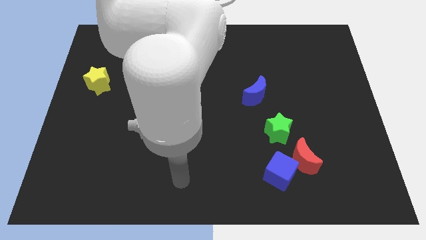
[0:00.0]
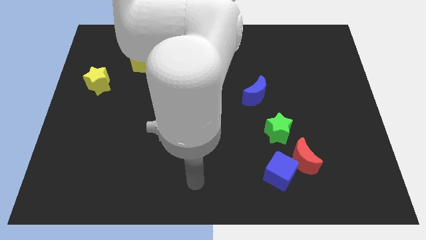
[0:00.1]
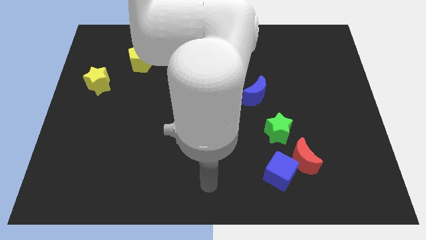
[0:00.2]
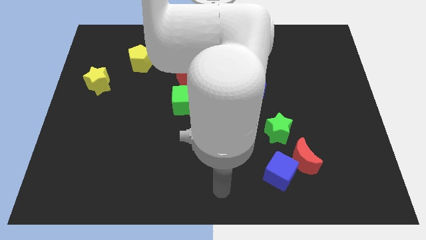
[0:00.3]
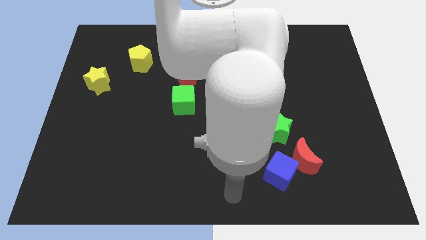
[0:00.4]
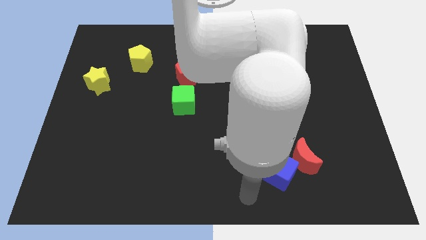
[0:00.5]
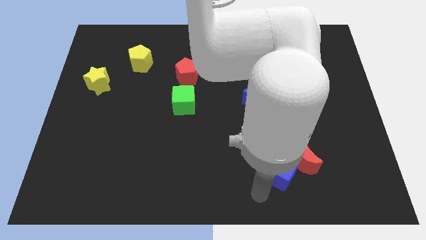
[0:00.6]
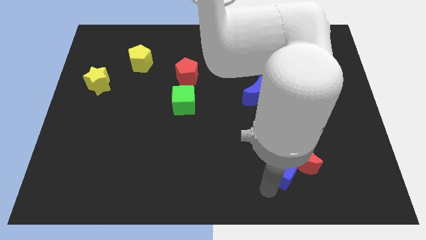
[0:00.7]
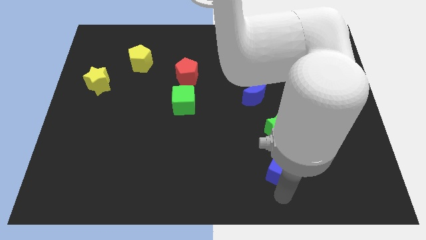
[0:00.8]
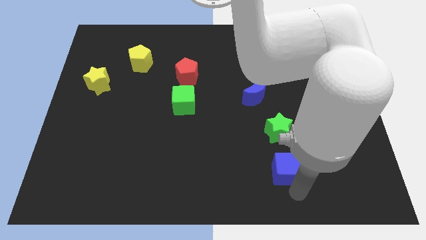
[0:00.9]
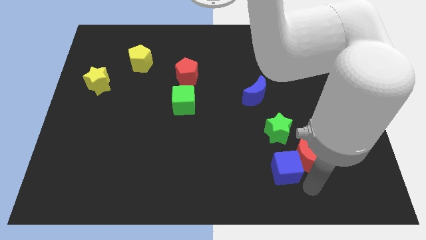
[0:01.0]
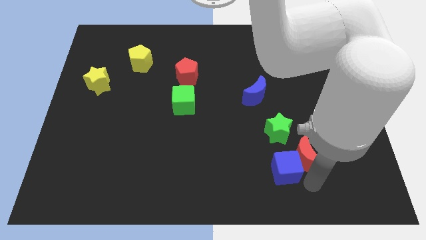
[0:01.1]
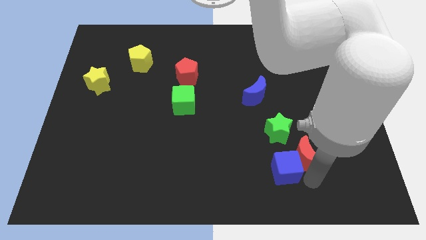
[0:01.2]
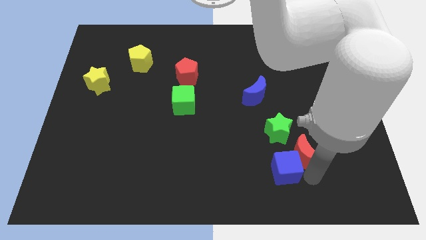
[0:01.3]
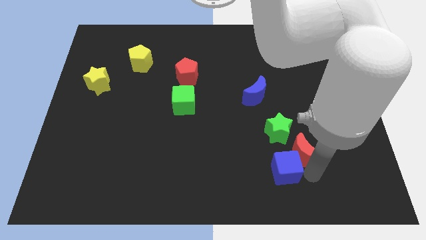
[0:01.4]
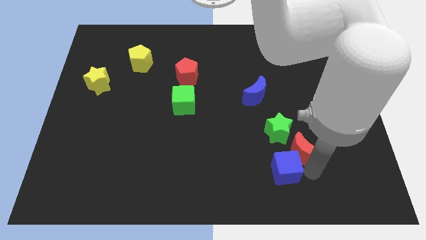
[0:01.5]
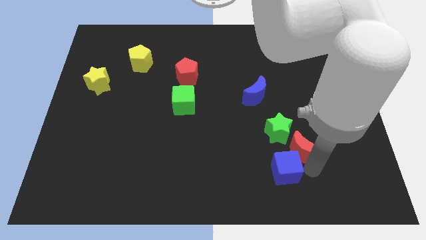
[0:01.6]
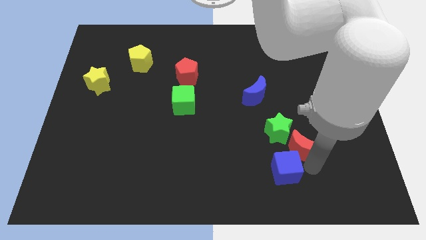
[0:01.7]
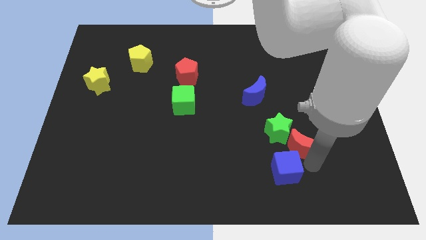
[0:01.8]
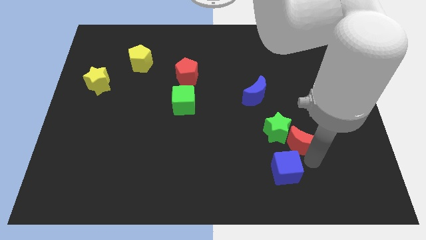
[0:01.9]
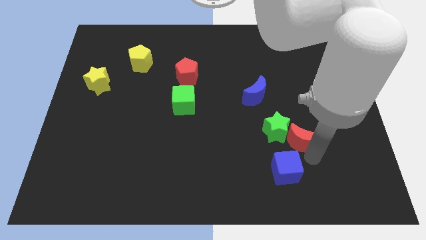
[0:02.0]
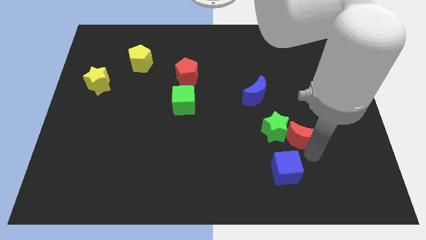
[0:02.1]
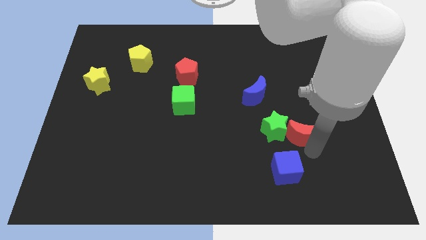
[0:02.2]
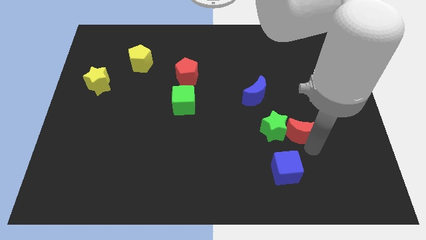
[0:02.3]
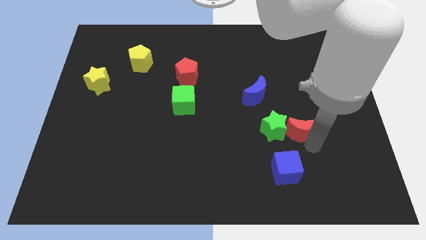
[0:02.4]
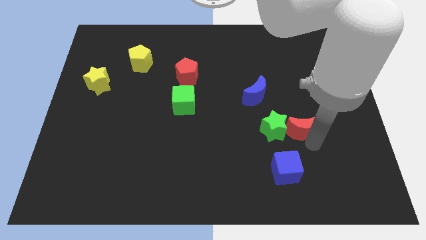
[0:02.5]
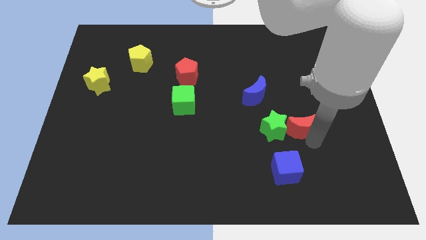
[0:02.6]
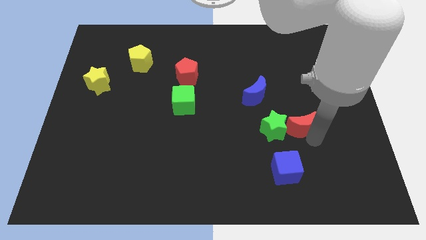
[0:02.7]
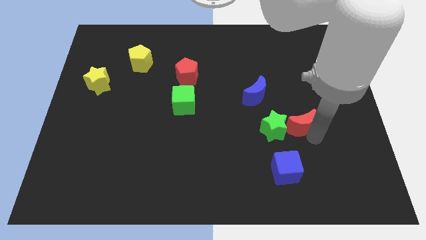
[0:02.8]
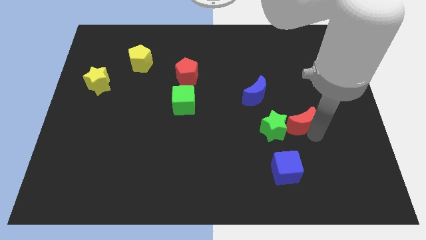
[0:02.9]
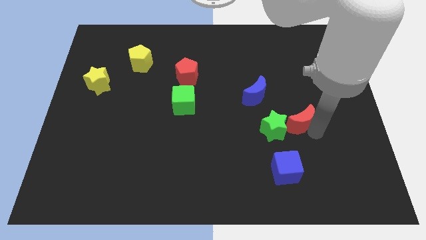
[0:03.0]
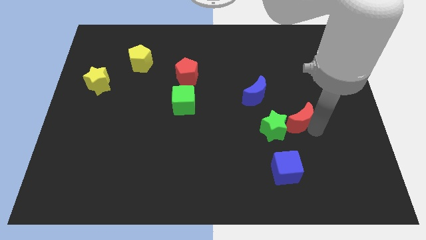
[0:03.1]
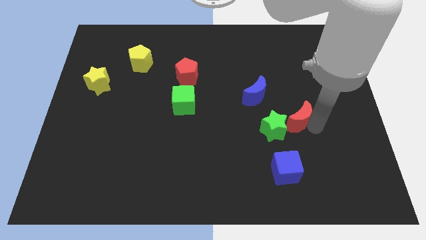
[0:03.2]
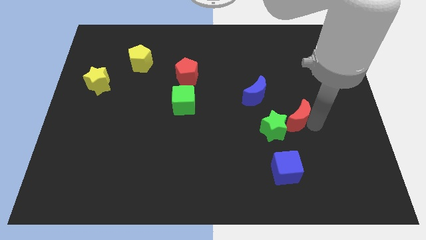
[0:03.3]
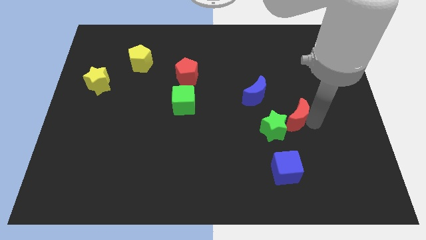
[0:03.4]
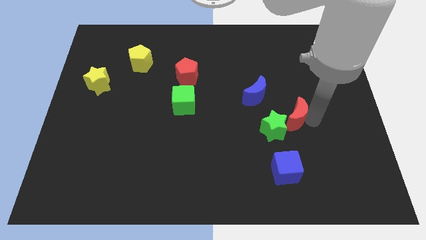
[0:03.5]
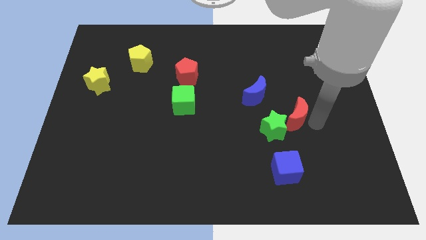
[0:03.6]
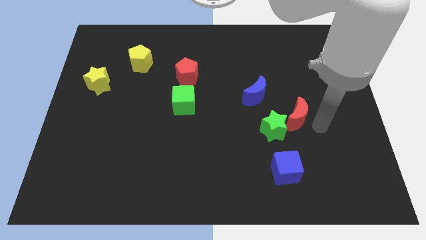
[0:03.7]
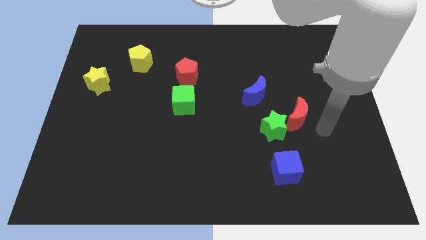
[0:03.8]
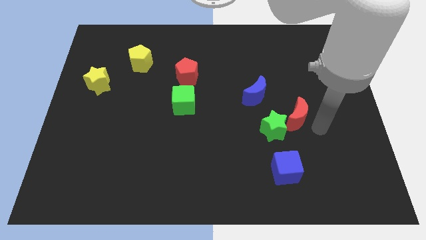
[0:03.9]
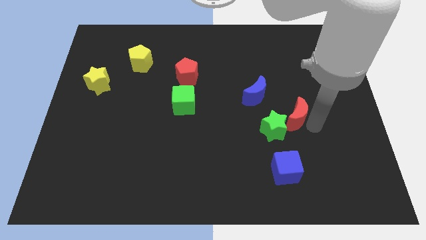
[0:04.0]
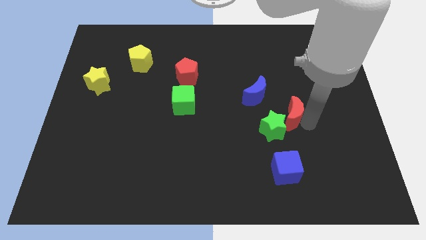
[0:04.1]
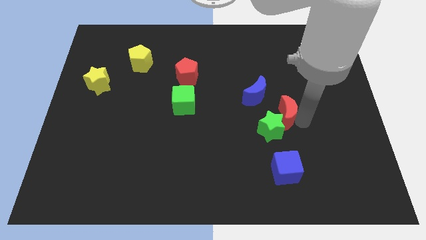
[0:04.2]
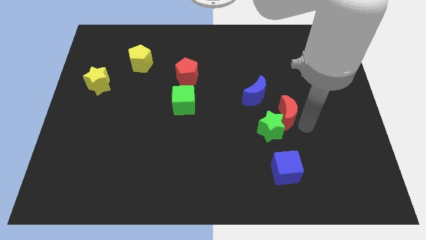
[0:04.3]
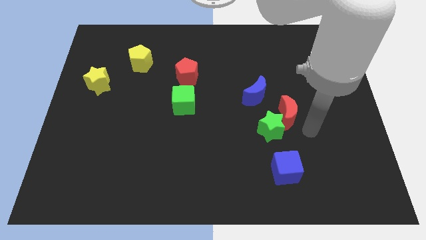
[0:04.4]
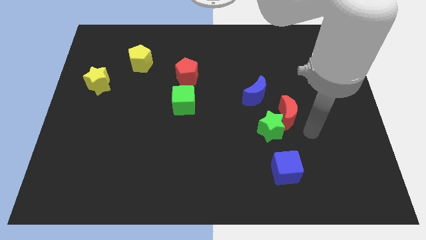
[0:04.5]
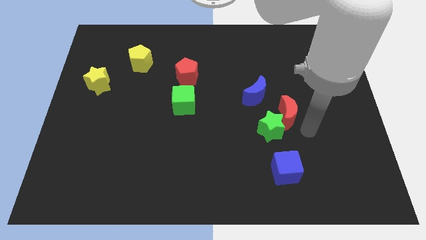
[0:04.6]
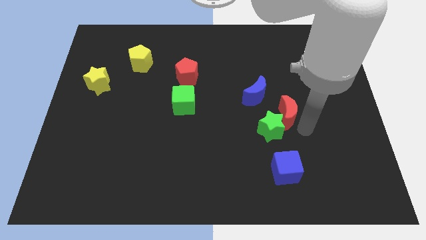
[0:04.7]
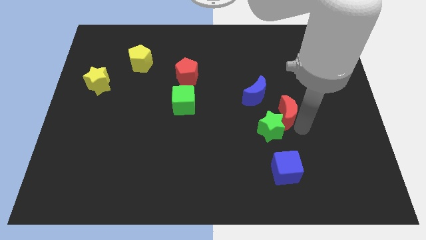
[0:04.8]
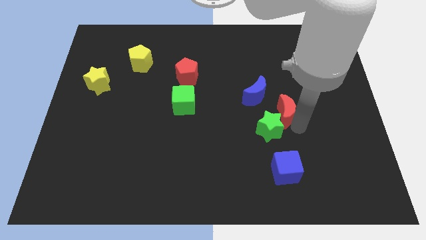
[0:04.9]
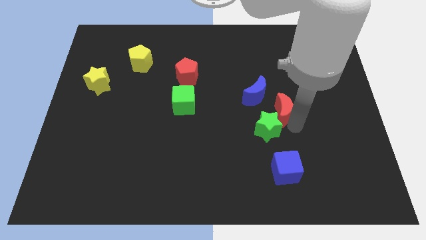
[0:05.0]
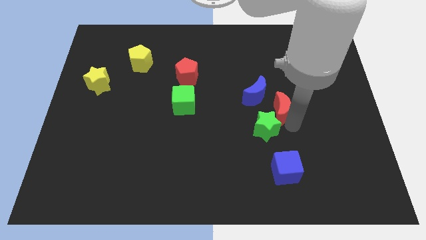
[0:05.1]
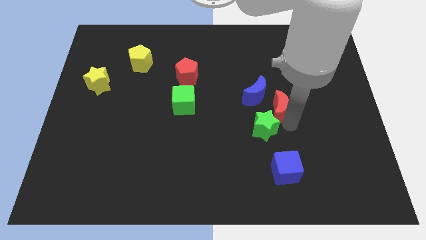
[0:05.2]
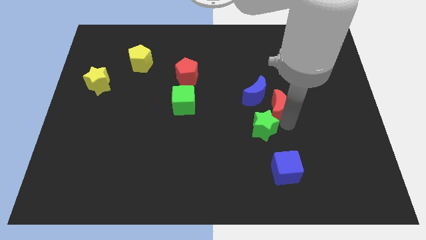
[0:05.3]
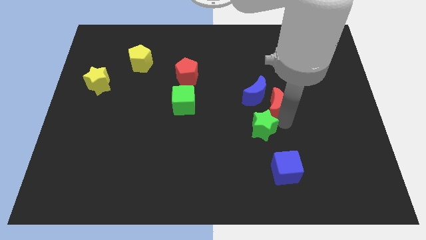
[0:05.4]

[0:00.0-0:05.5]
move the red moon towards the blue moon
